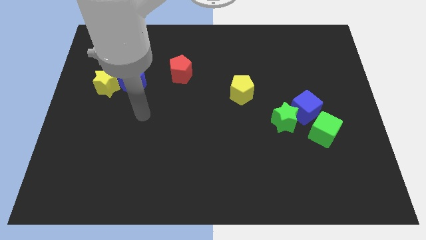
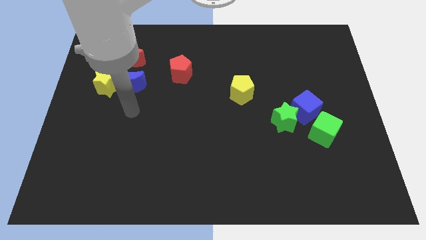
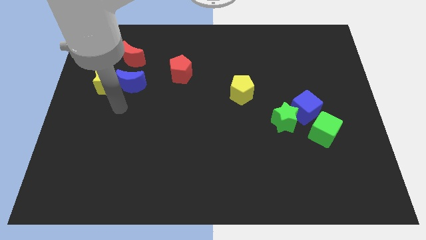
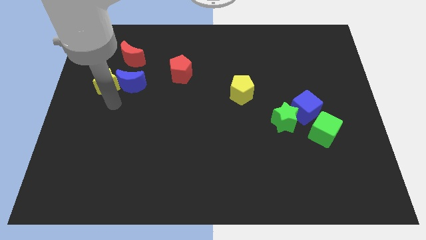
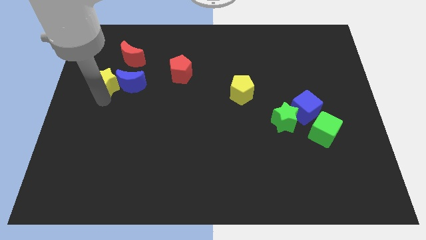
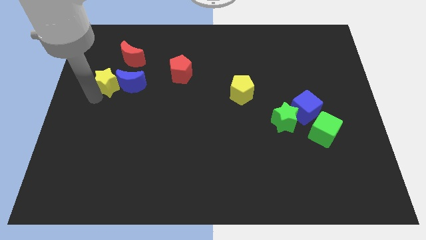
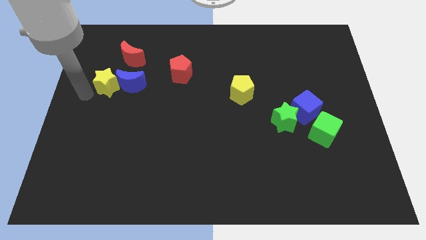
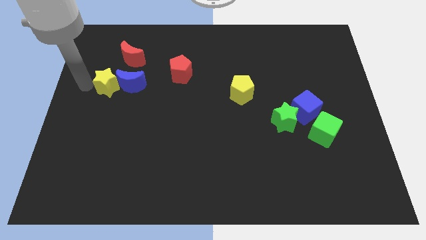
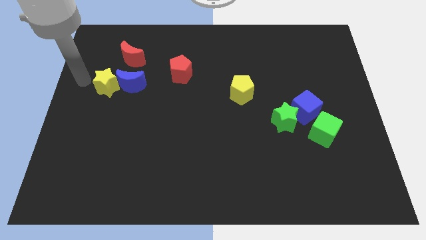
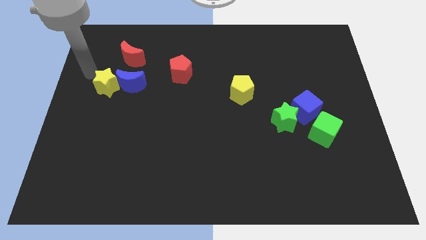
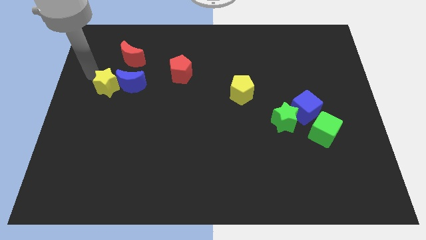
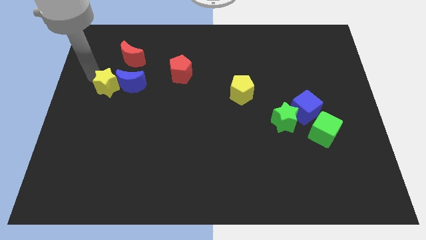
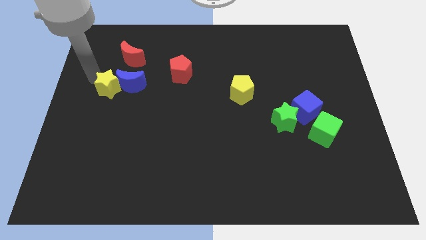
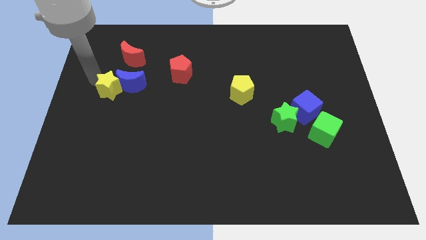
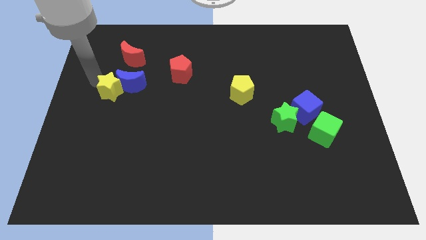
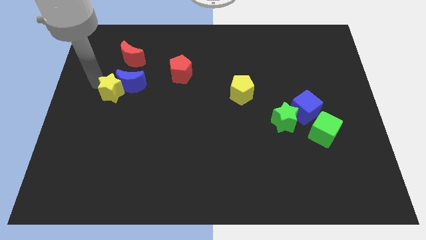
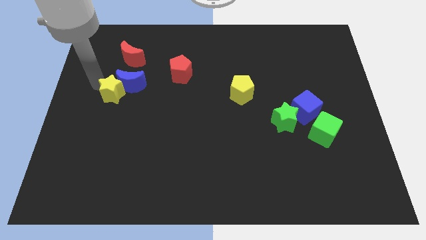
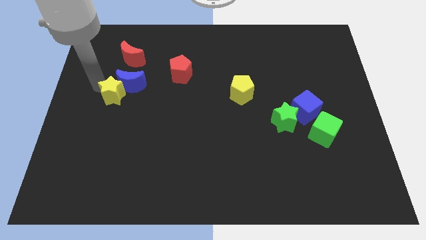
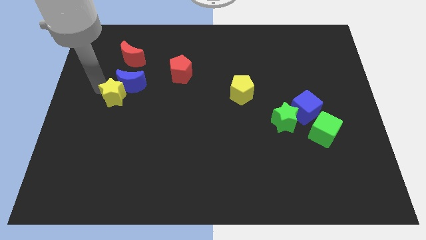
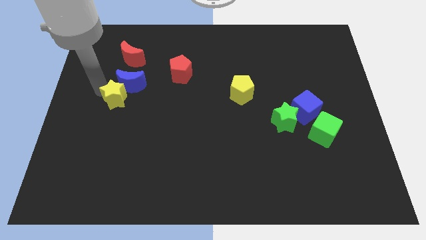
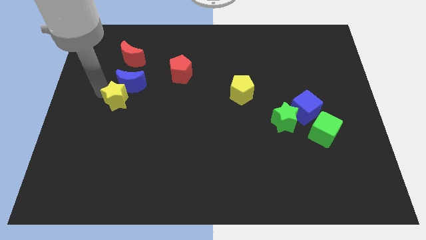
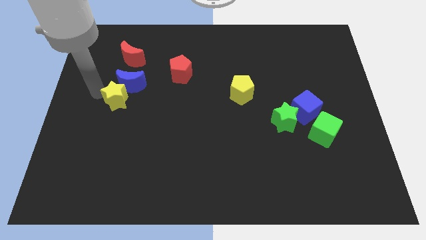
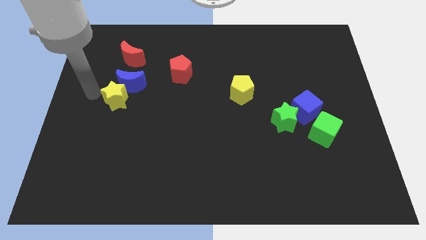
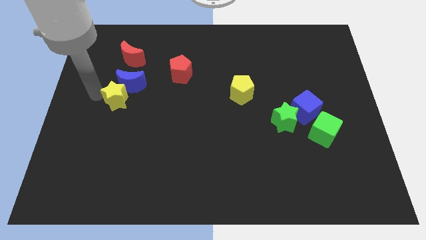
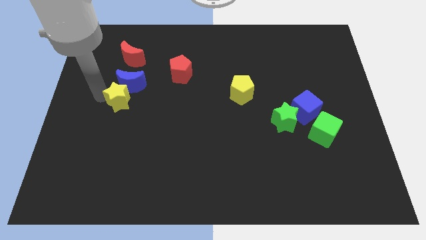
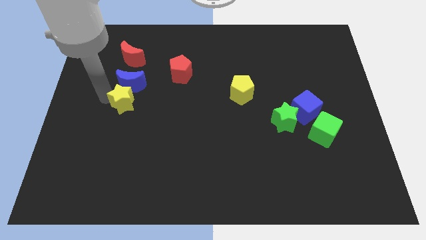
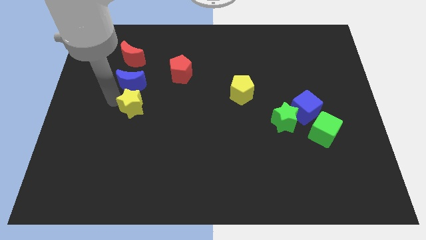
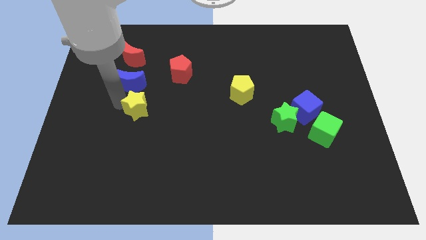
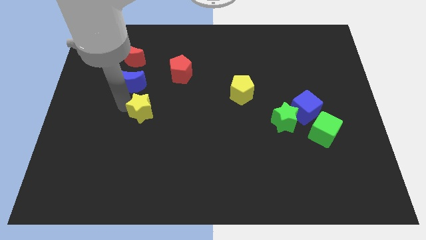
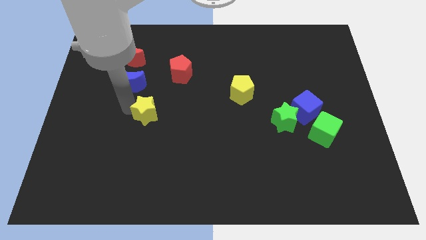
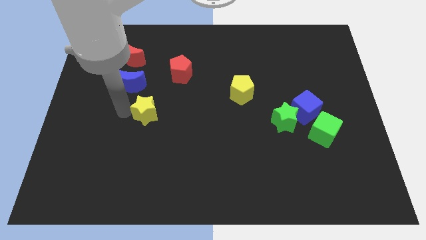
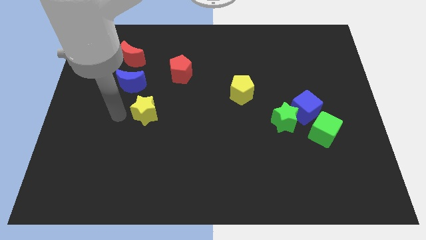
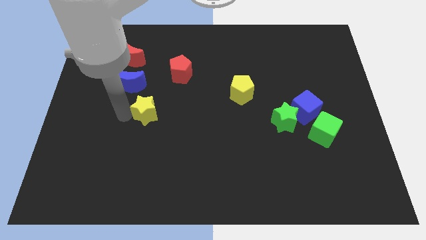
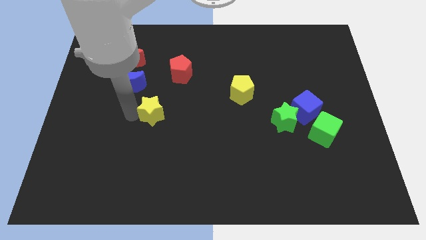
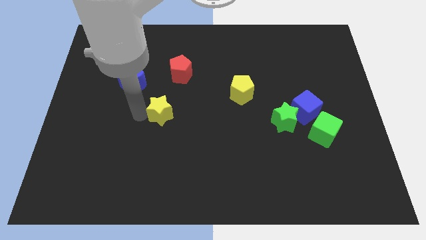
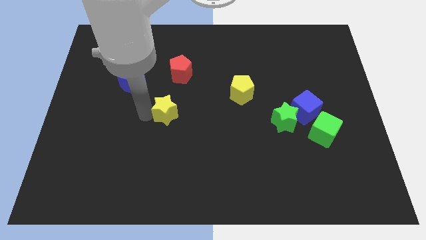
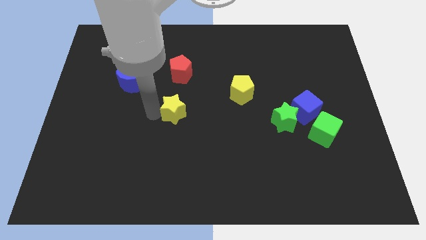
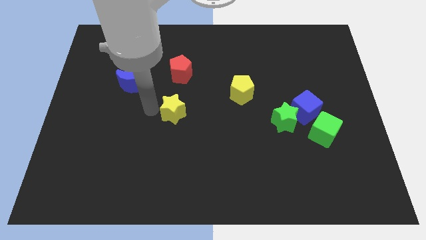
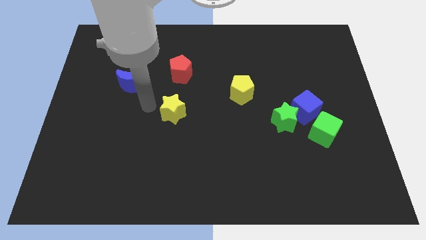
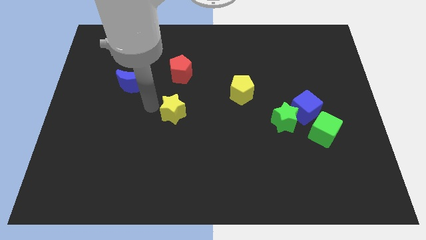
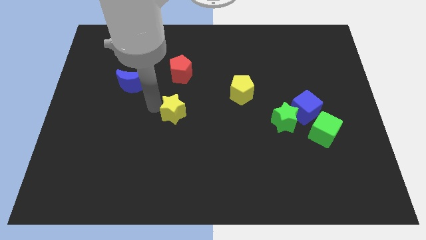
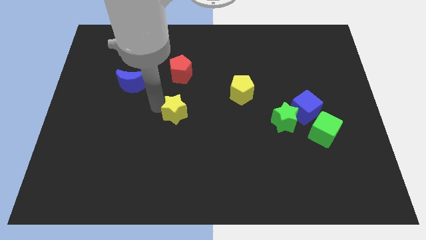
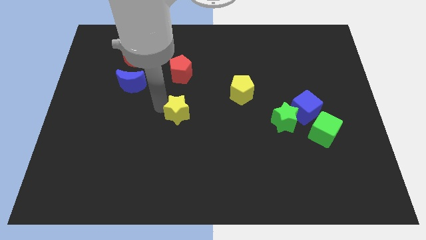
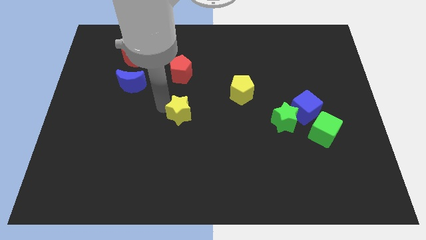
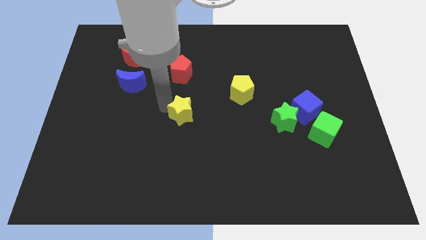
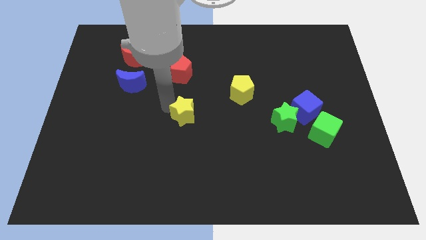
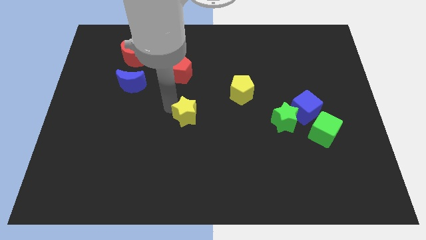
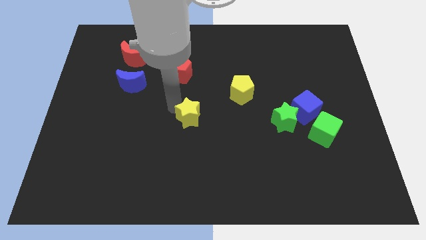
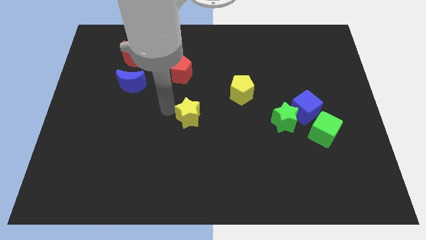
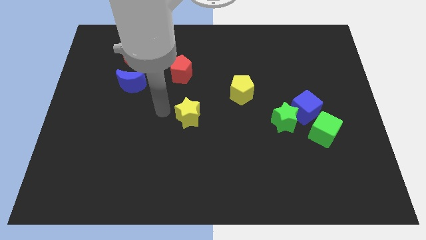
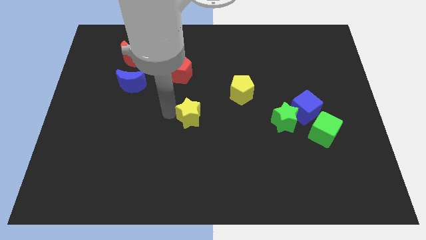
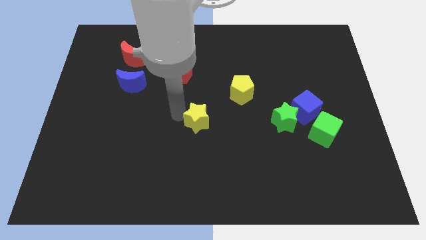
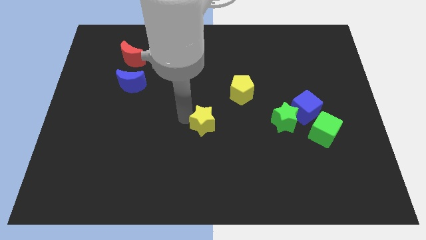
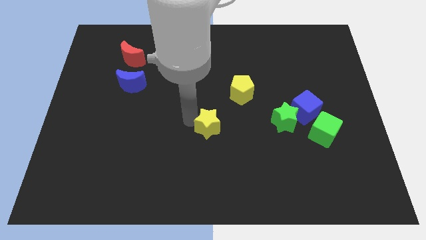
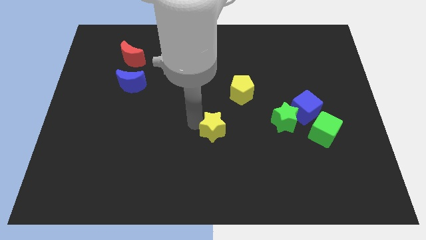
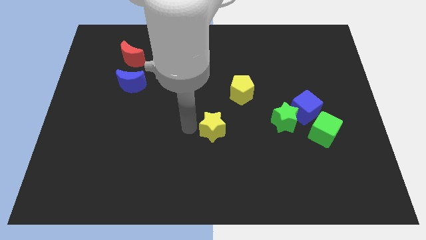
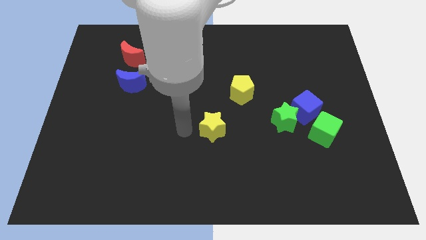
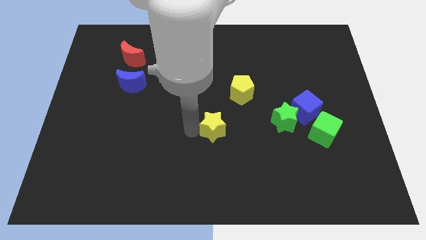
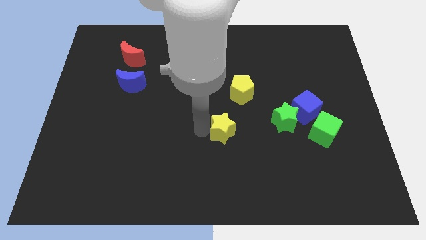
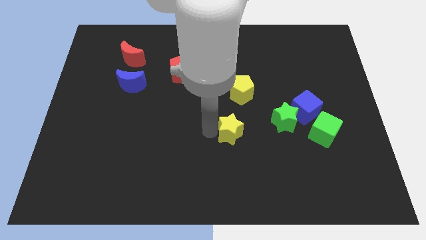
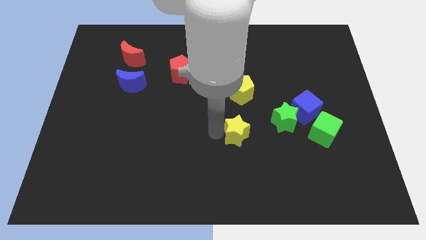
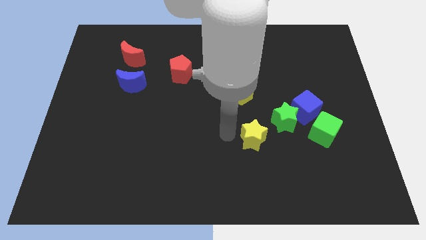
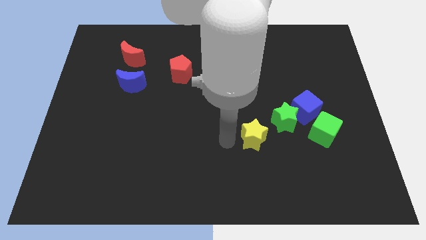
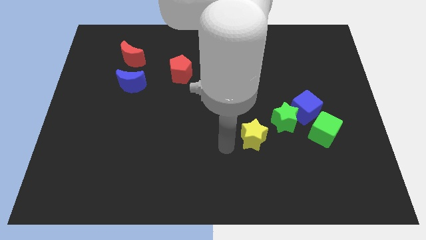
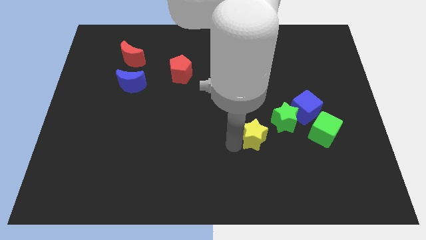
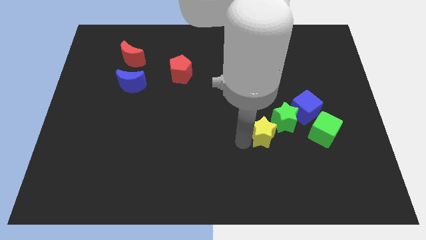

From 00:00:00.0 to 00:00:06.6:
slide the yellow star to the bottom left side of the blue cube
